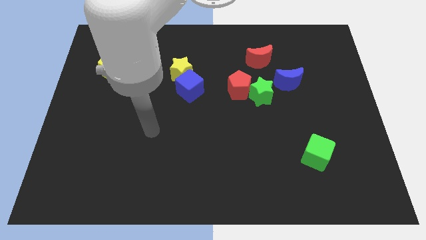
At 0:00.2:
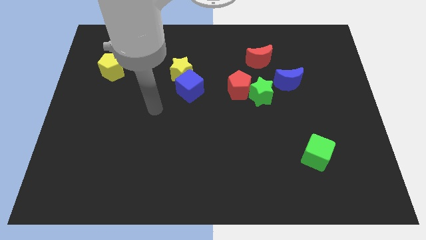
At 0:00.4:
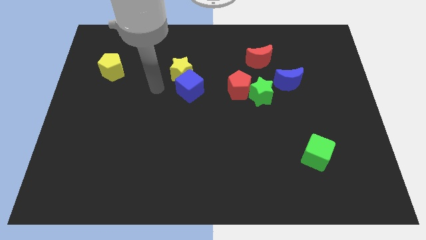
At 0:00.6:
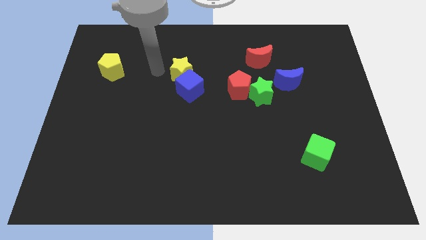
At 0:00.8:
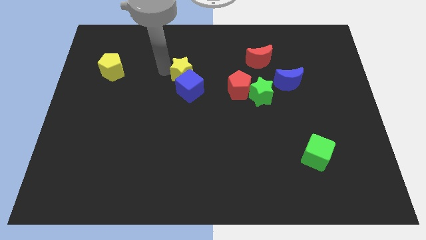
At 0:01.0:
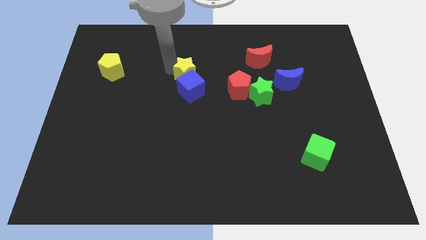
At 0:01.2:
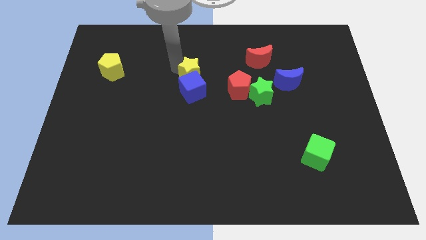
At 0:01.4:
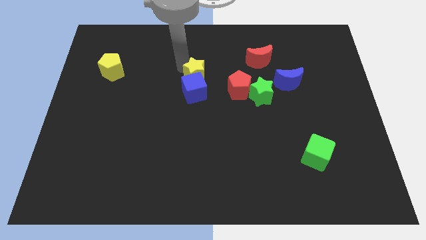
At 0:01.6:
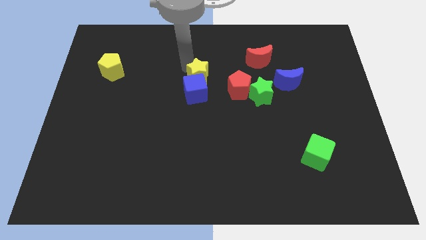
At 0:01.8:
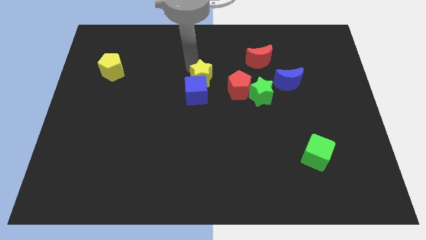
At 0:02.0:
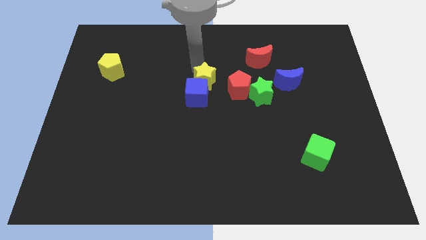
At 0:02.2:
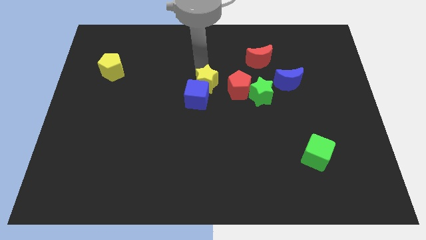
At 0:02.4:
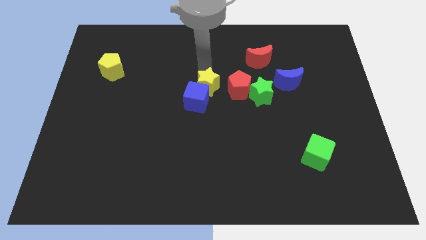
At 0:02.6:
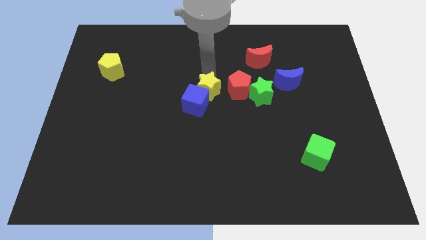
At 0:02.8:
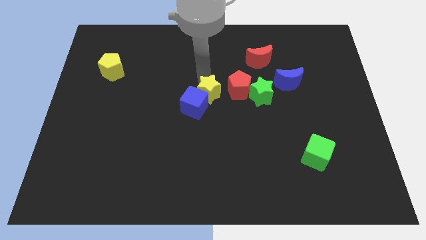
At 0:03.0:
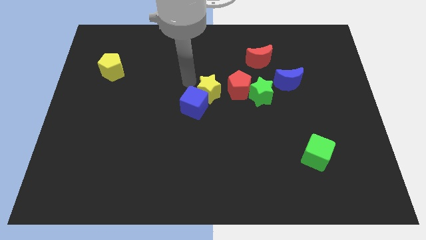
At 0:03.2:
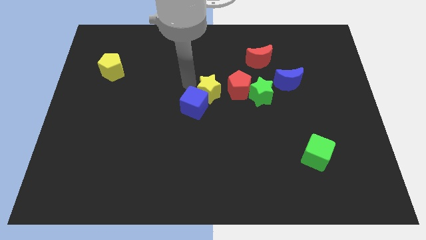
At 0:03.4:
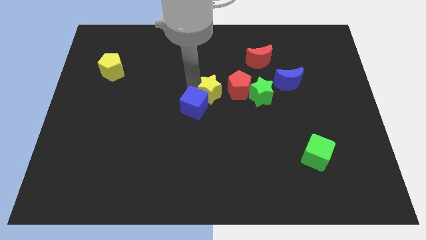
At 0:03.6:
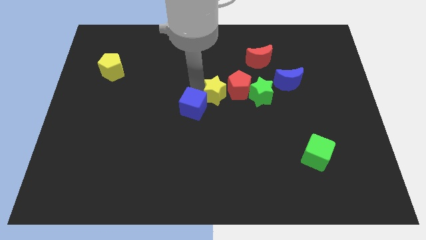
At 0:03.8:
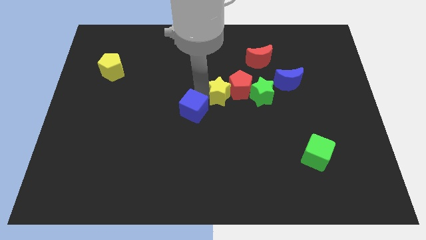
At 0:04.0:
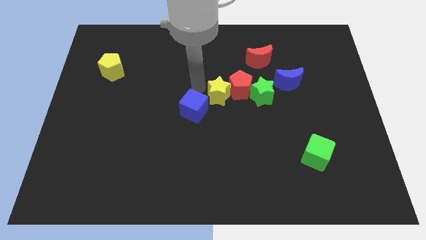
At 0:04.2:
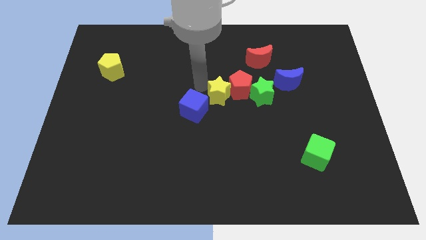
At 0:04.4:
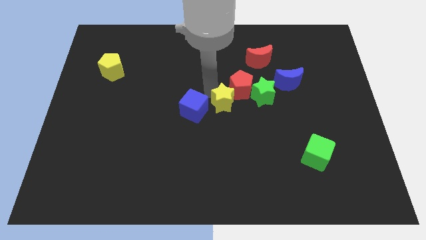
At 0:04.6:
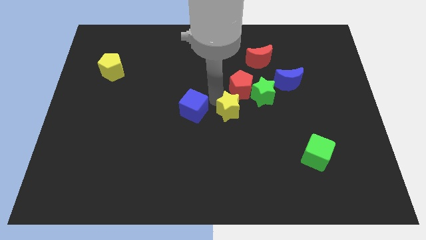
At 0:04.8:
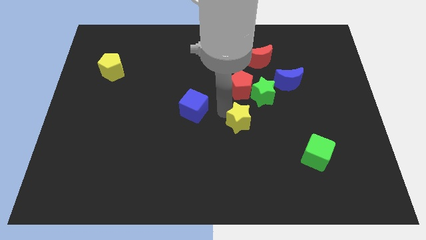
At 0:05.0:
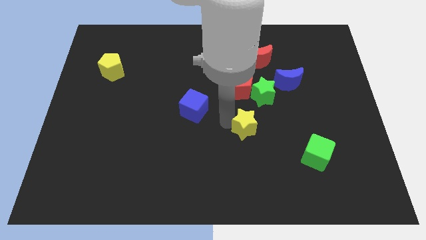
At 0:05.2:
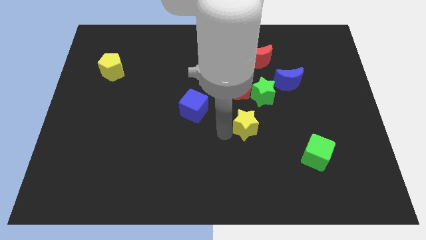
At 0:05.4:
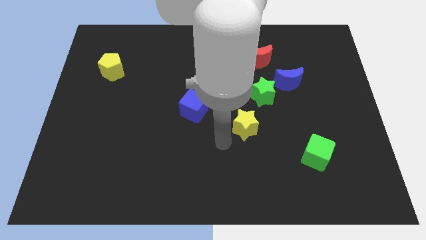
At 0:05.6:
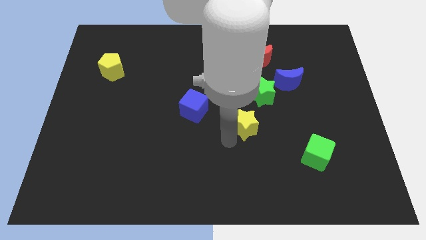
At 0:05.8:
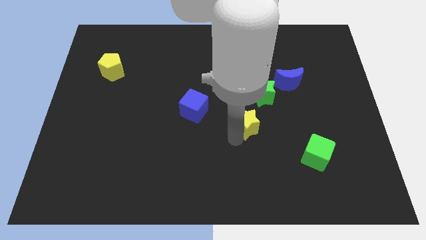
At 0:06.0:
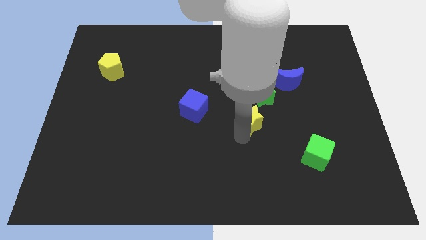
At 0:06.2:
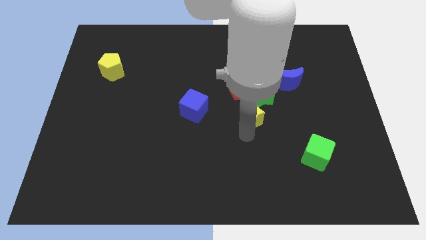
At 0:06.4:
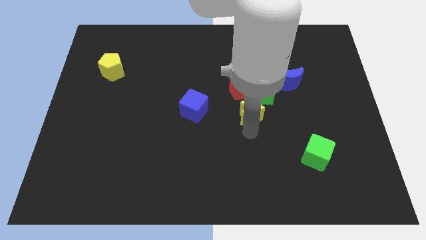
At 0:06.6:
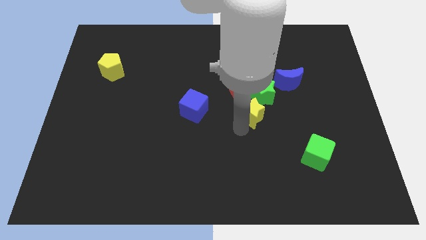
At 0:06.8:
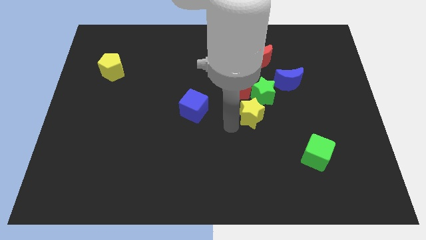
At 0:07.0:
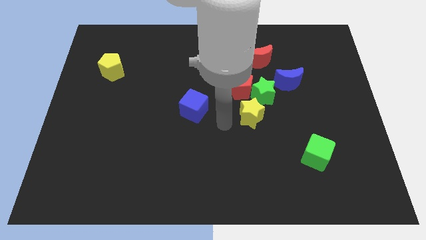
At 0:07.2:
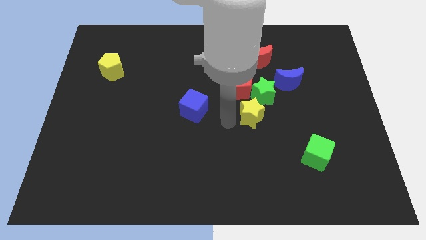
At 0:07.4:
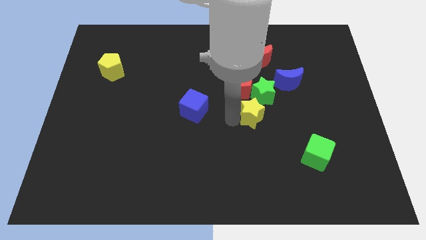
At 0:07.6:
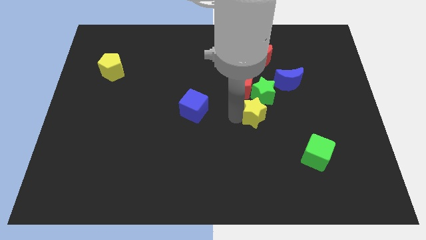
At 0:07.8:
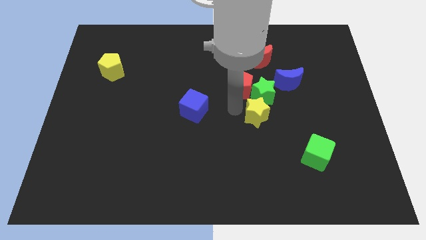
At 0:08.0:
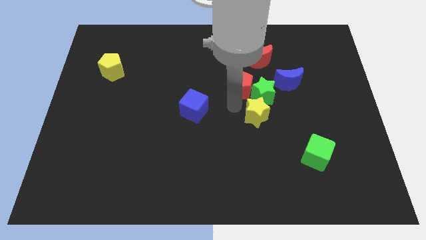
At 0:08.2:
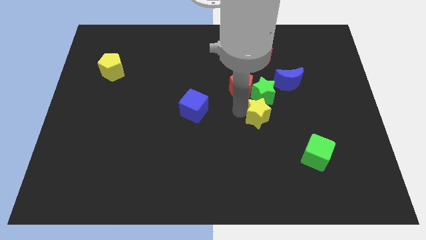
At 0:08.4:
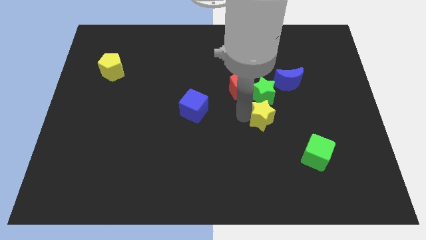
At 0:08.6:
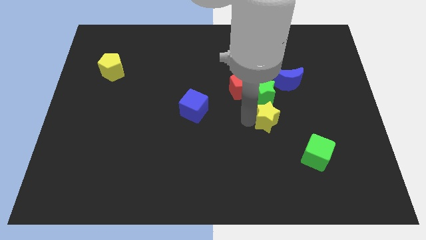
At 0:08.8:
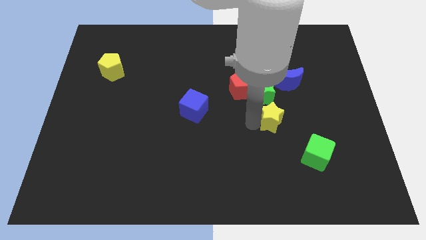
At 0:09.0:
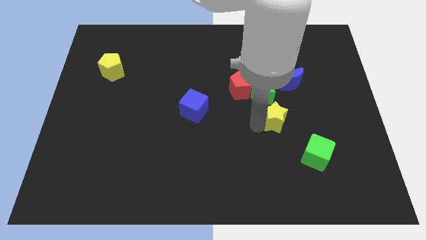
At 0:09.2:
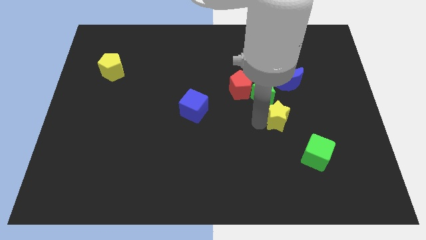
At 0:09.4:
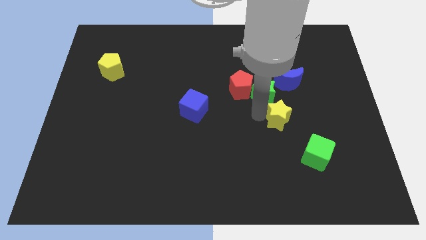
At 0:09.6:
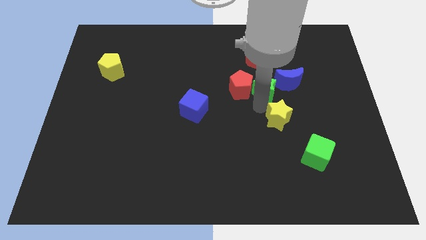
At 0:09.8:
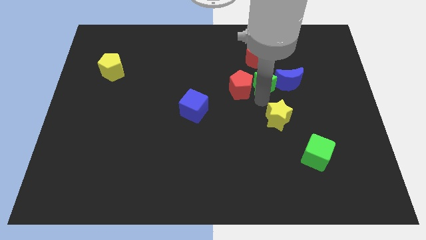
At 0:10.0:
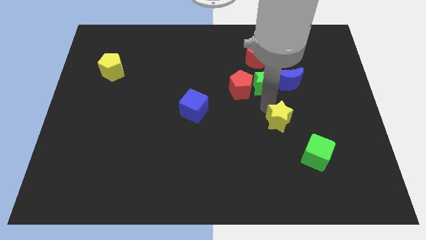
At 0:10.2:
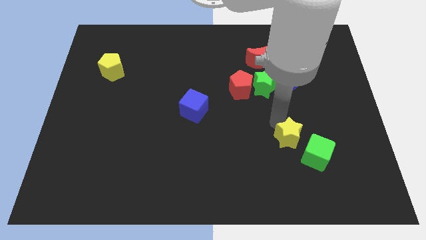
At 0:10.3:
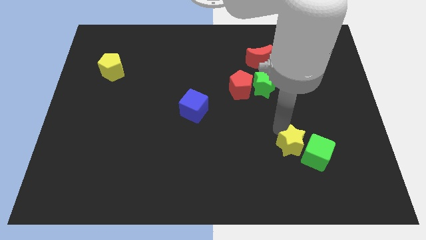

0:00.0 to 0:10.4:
put the yellow star next to the green cube

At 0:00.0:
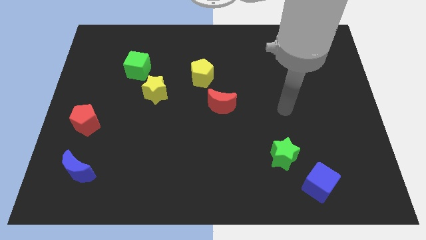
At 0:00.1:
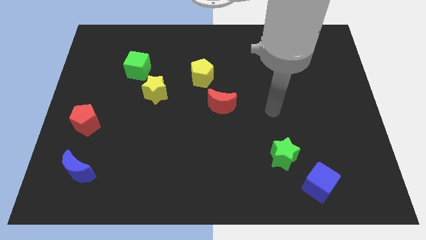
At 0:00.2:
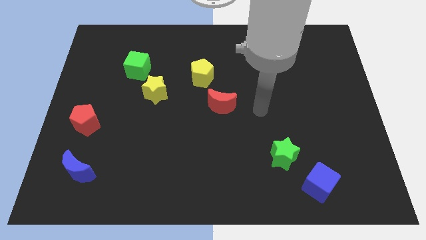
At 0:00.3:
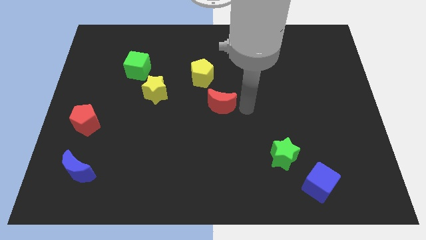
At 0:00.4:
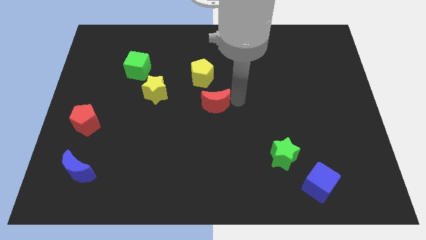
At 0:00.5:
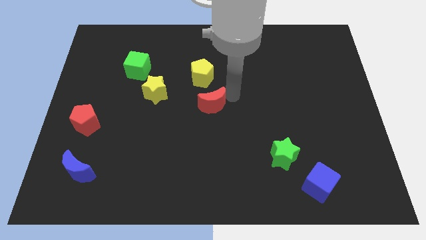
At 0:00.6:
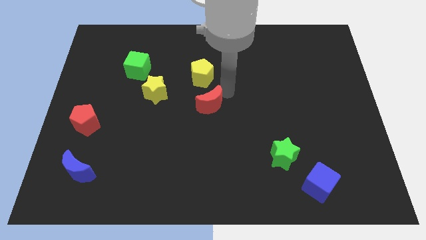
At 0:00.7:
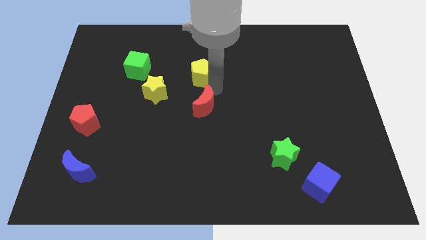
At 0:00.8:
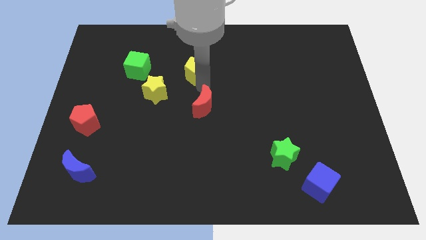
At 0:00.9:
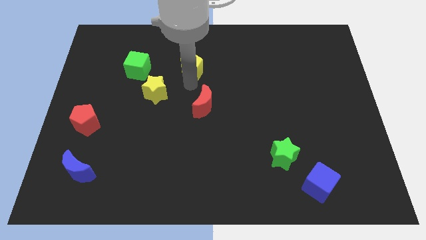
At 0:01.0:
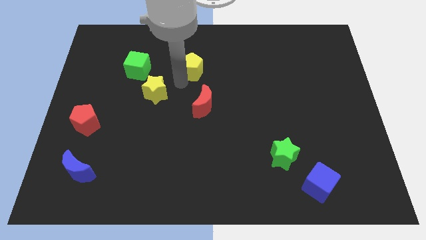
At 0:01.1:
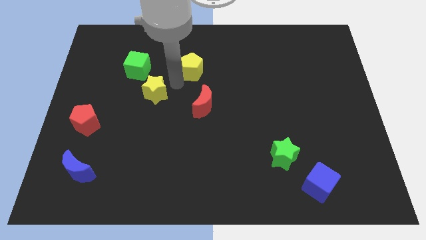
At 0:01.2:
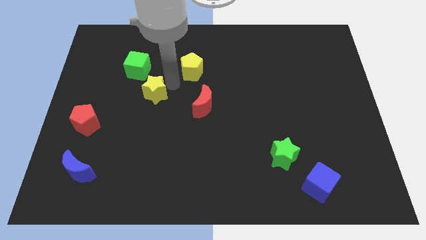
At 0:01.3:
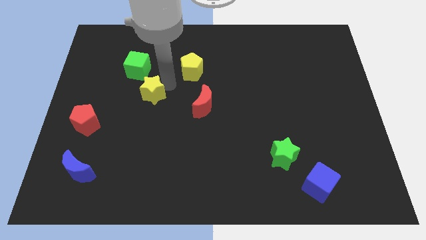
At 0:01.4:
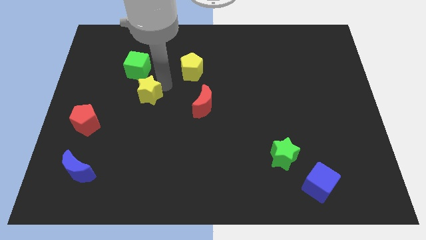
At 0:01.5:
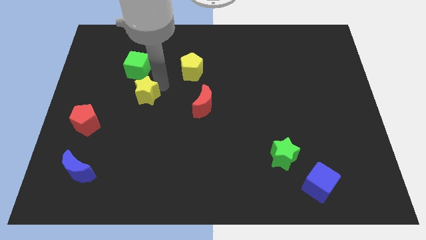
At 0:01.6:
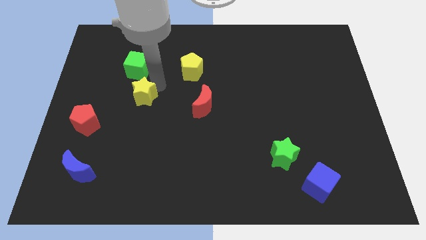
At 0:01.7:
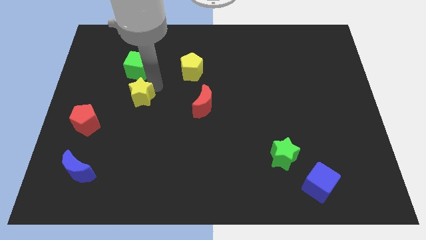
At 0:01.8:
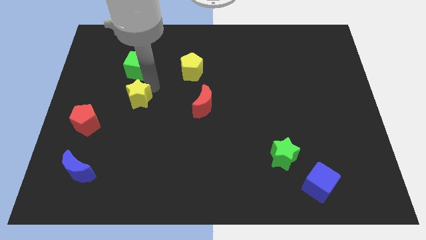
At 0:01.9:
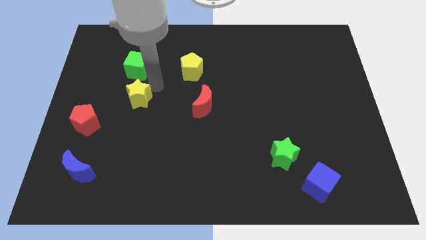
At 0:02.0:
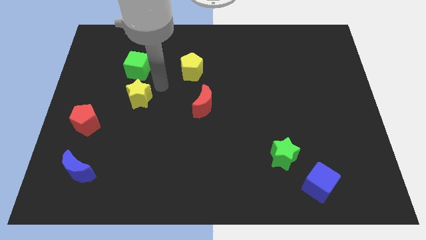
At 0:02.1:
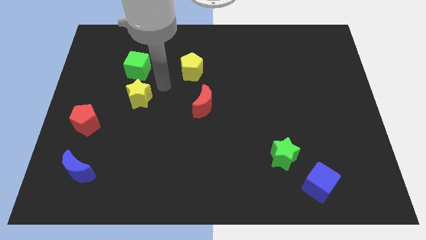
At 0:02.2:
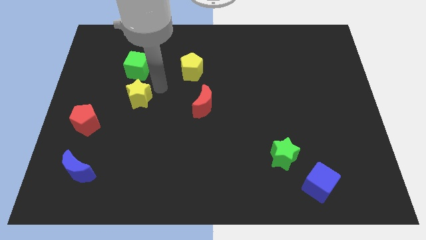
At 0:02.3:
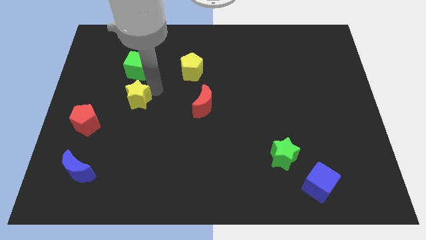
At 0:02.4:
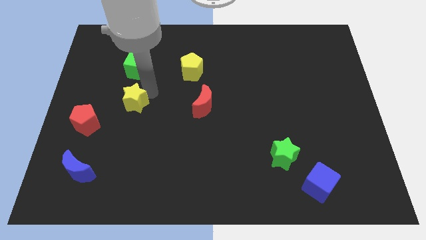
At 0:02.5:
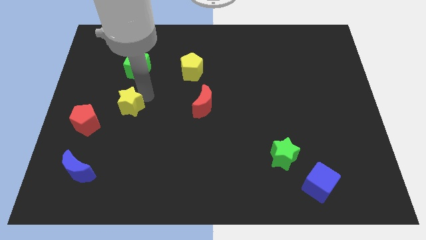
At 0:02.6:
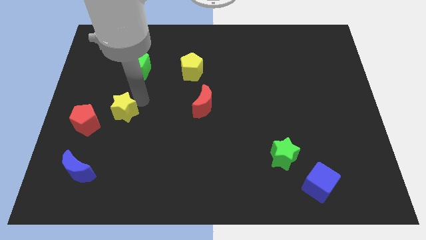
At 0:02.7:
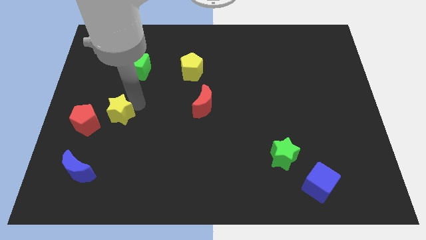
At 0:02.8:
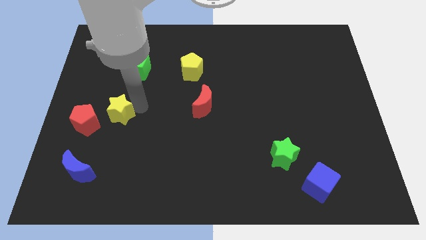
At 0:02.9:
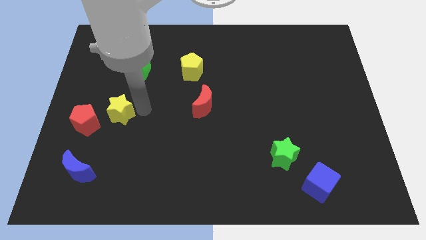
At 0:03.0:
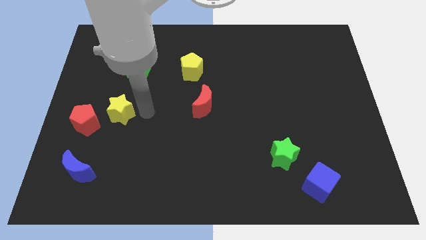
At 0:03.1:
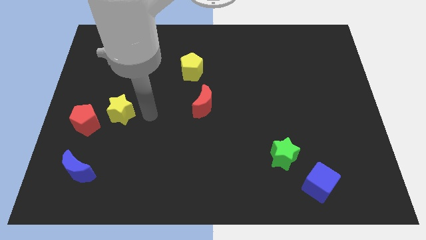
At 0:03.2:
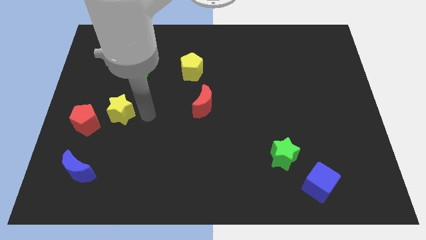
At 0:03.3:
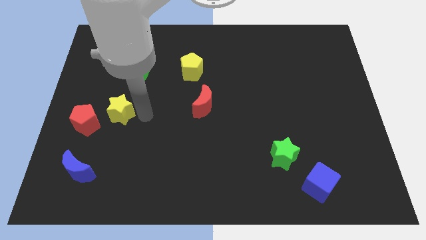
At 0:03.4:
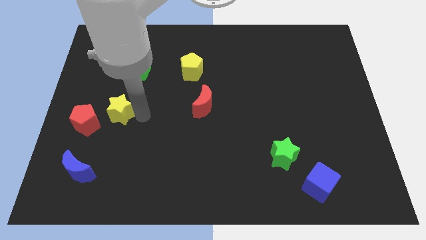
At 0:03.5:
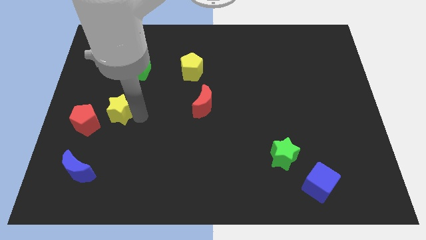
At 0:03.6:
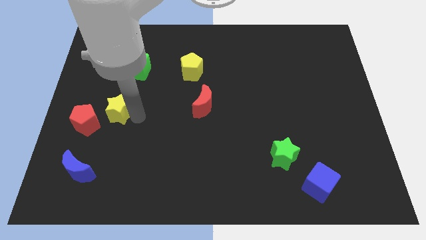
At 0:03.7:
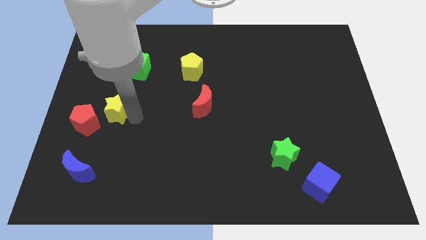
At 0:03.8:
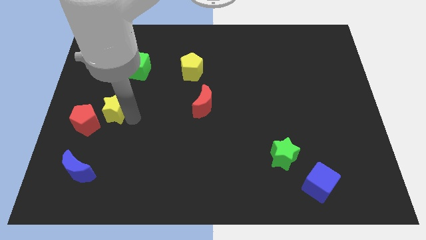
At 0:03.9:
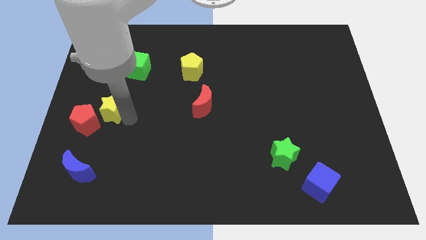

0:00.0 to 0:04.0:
push the yellow star to the red pentagon
